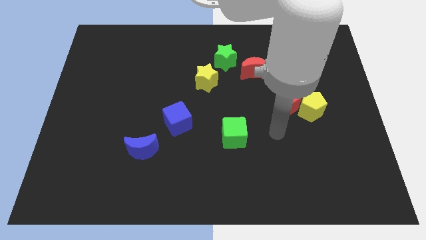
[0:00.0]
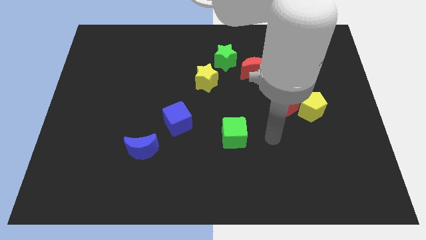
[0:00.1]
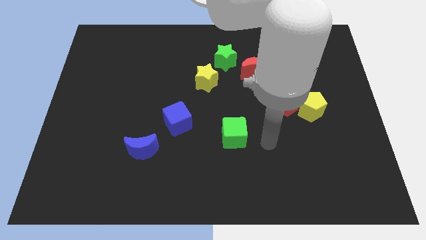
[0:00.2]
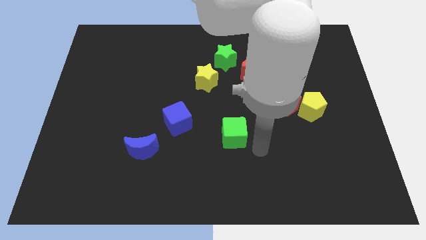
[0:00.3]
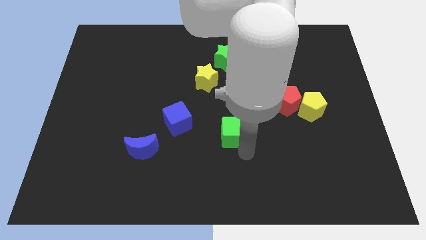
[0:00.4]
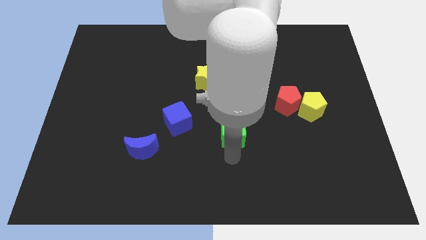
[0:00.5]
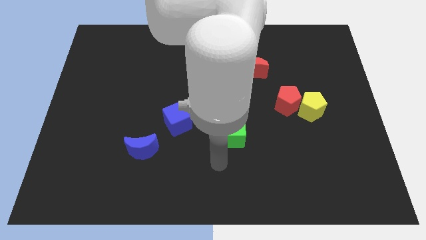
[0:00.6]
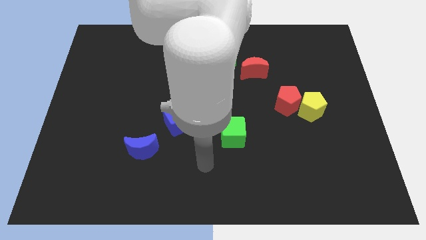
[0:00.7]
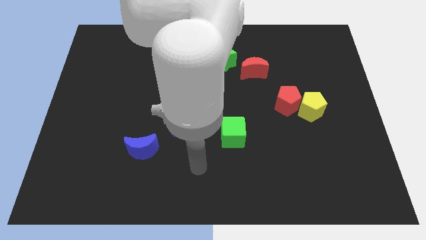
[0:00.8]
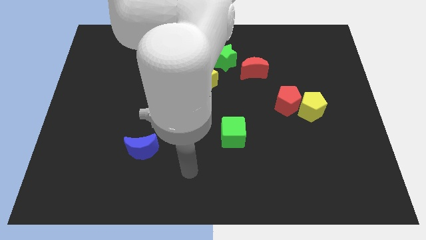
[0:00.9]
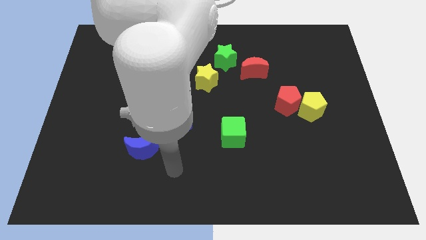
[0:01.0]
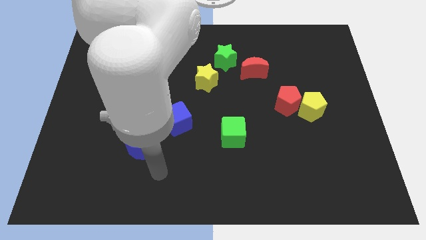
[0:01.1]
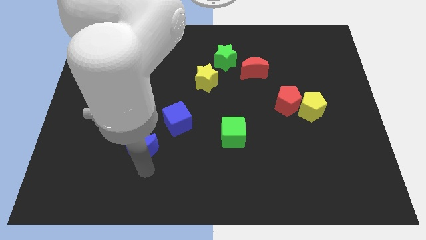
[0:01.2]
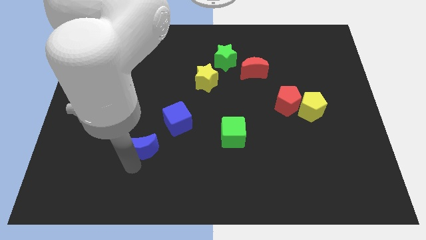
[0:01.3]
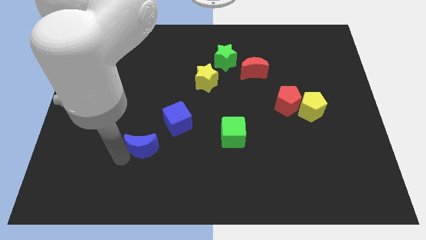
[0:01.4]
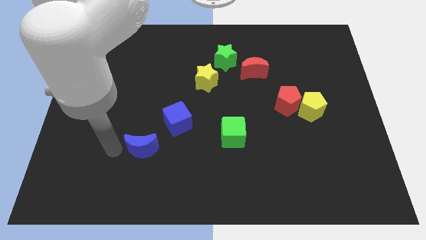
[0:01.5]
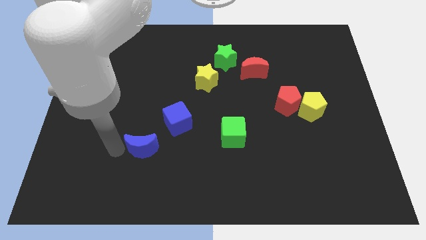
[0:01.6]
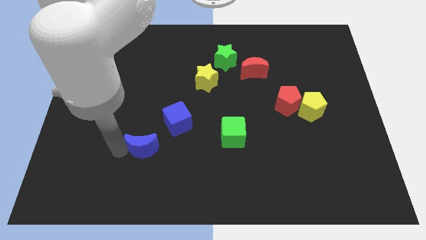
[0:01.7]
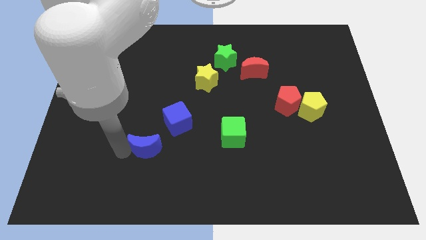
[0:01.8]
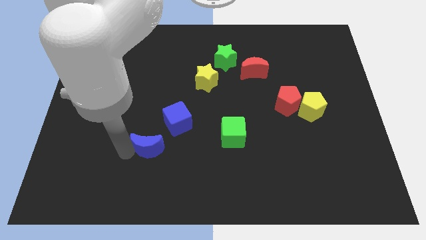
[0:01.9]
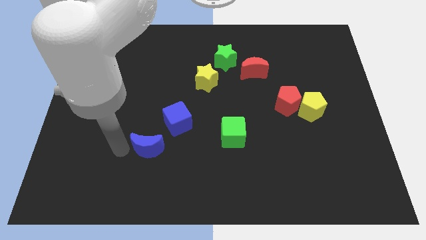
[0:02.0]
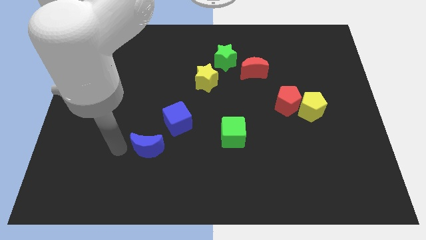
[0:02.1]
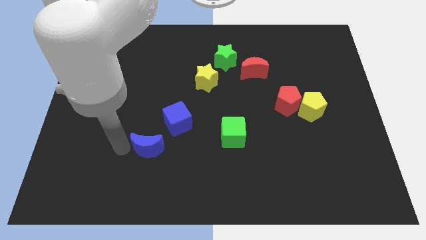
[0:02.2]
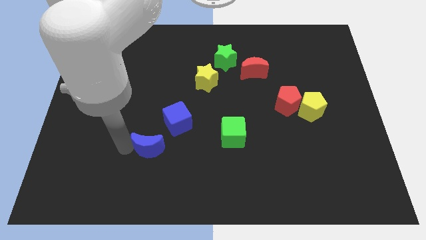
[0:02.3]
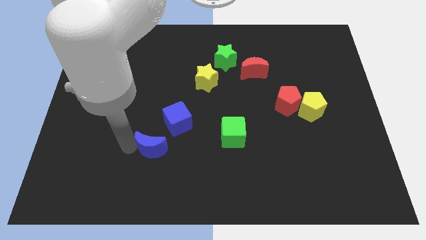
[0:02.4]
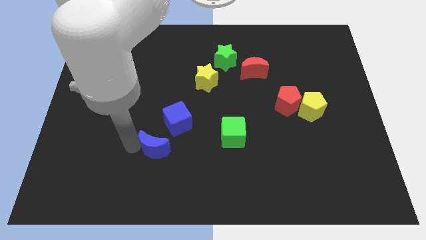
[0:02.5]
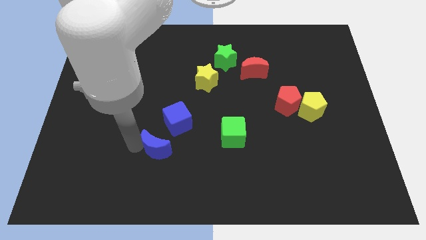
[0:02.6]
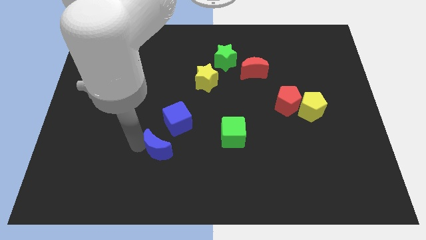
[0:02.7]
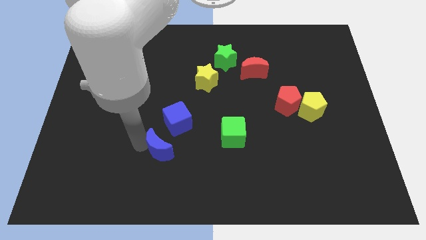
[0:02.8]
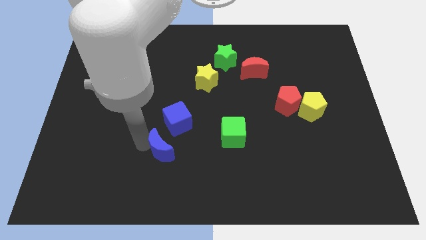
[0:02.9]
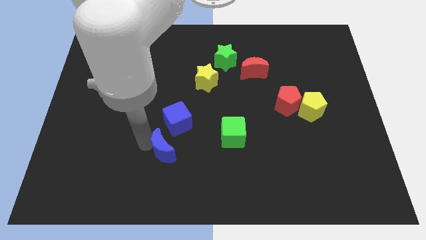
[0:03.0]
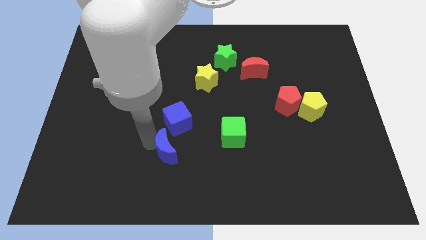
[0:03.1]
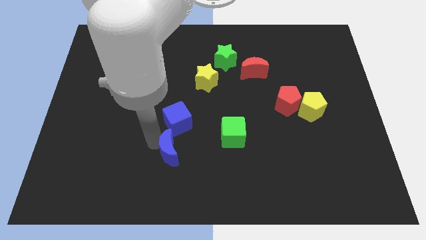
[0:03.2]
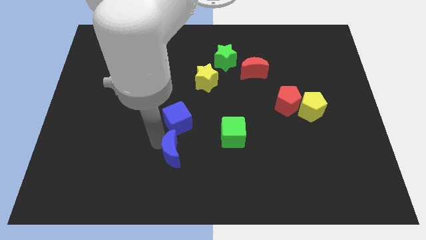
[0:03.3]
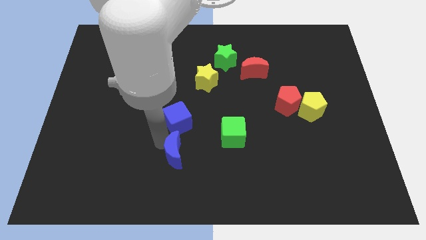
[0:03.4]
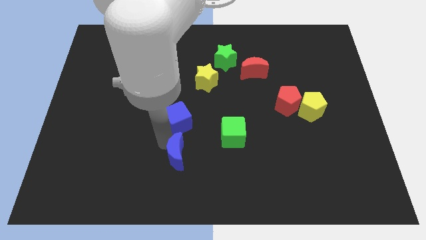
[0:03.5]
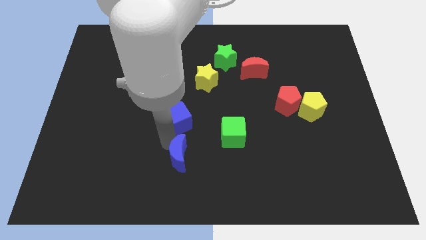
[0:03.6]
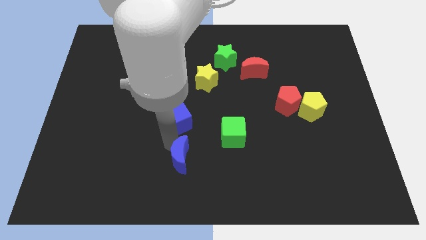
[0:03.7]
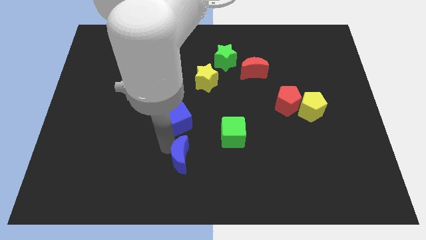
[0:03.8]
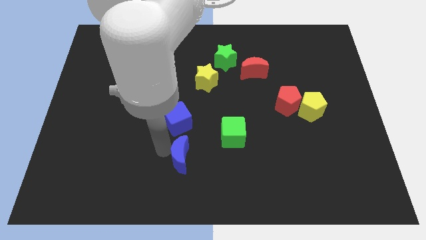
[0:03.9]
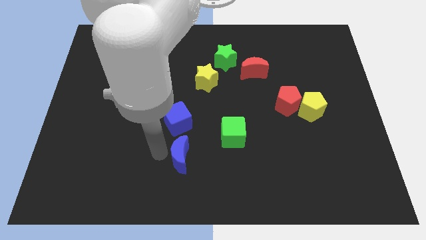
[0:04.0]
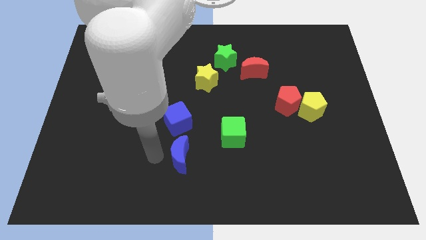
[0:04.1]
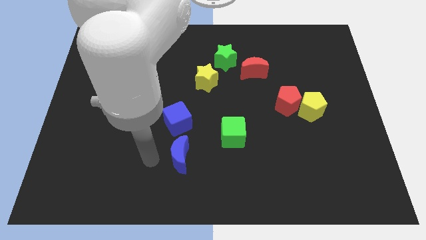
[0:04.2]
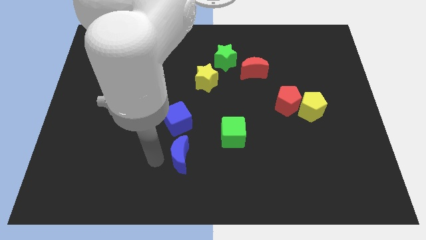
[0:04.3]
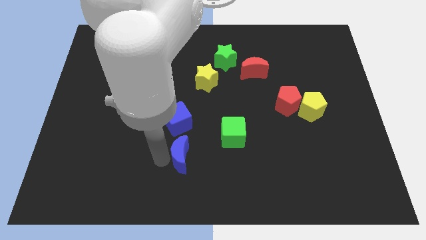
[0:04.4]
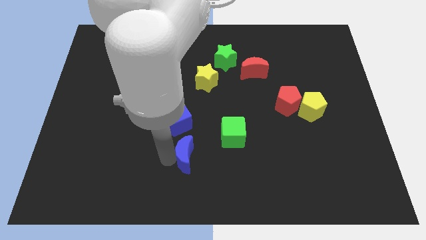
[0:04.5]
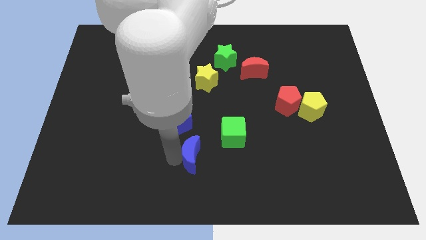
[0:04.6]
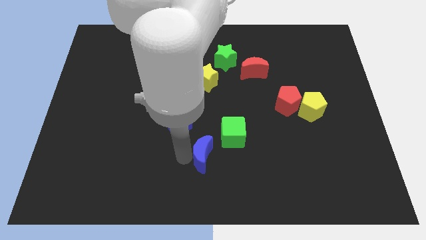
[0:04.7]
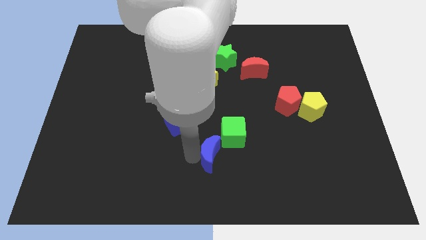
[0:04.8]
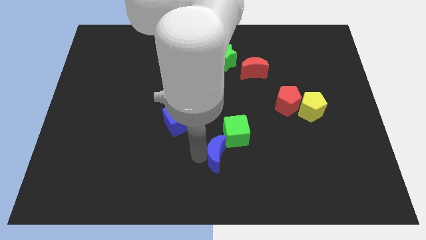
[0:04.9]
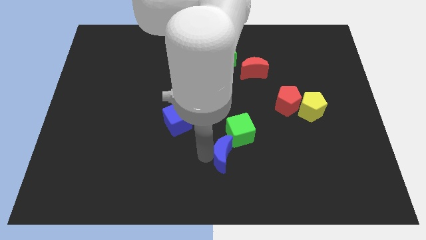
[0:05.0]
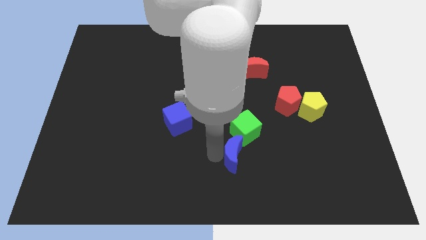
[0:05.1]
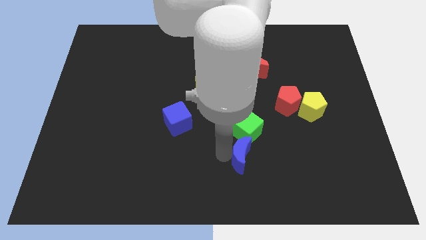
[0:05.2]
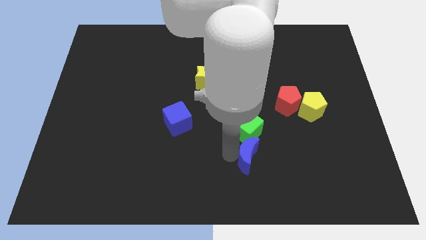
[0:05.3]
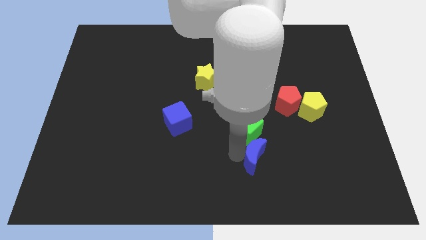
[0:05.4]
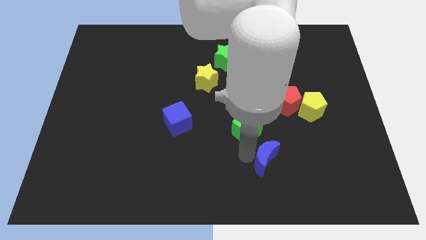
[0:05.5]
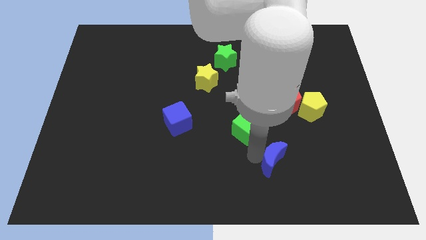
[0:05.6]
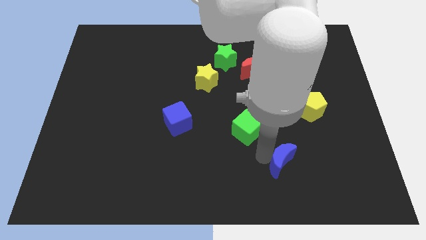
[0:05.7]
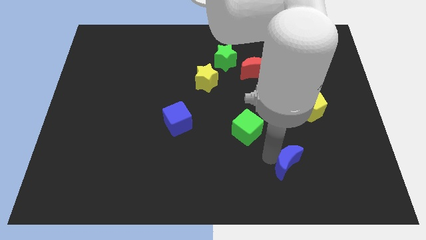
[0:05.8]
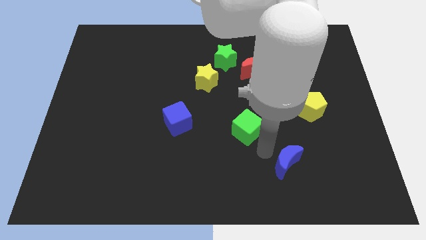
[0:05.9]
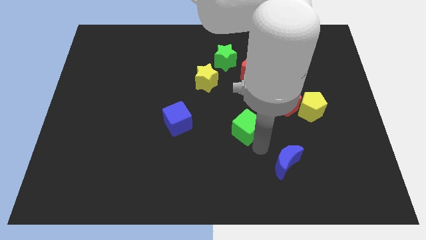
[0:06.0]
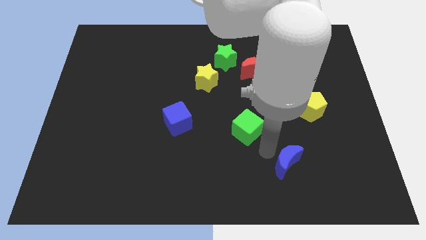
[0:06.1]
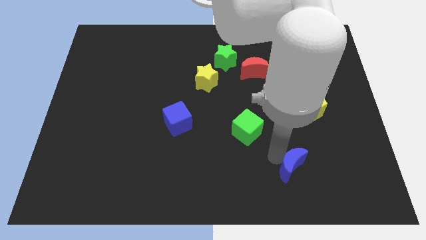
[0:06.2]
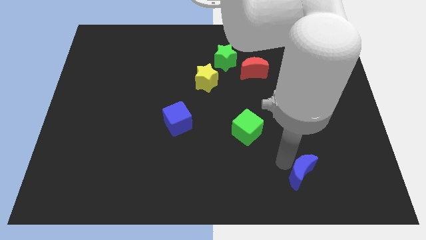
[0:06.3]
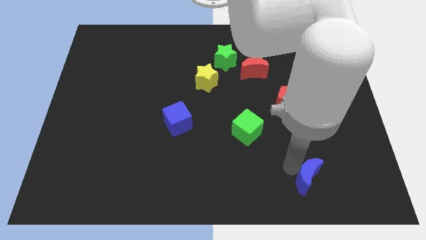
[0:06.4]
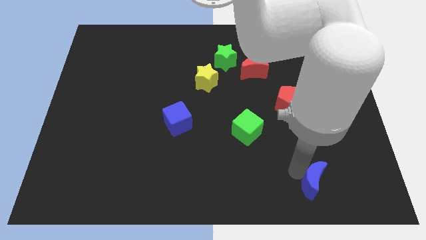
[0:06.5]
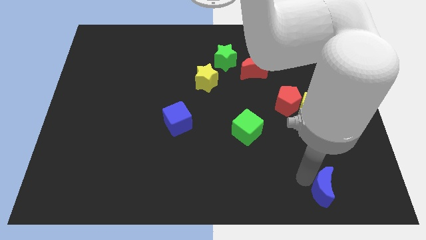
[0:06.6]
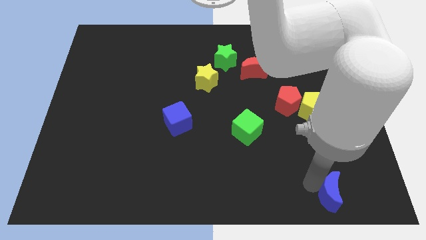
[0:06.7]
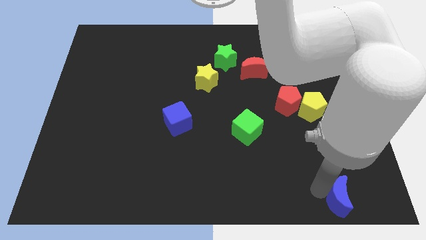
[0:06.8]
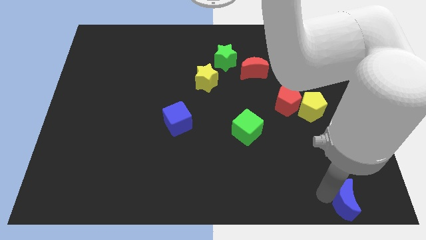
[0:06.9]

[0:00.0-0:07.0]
put the blue moon to the bottom right

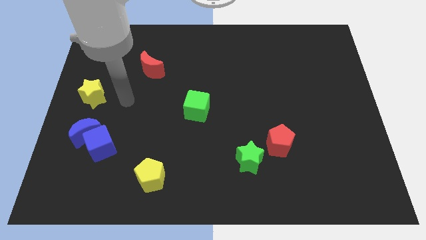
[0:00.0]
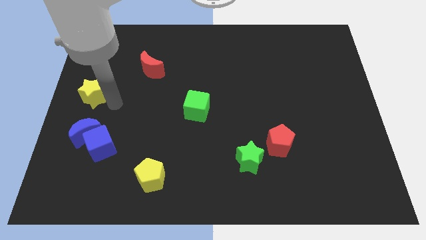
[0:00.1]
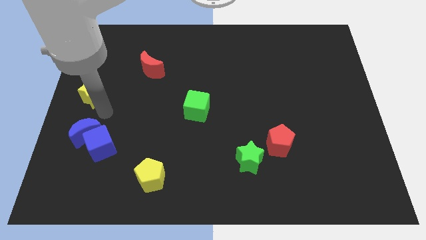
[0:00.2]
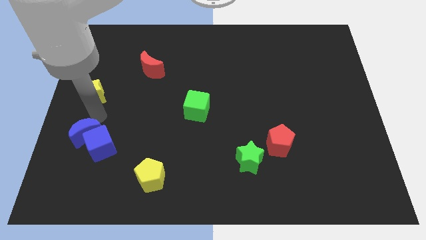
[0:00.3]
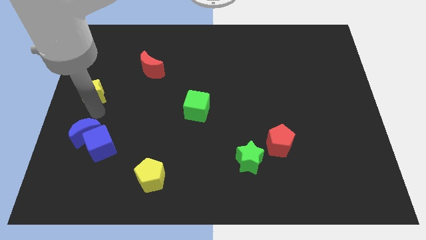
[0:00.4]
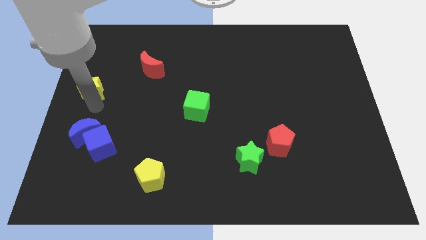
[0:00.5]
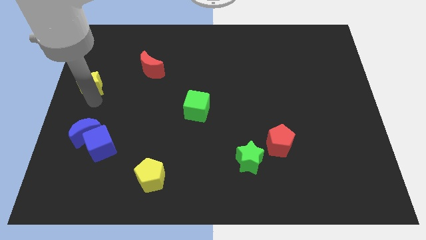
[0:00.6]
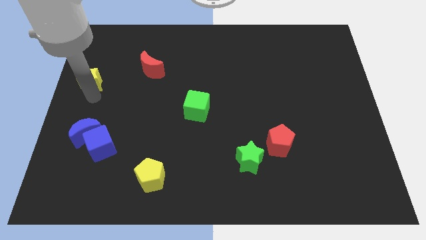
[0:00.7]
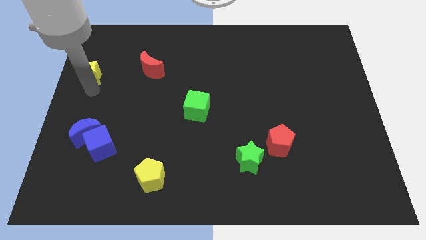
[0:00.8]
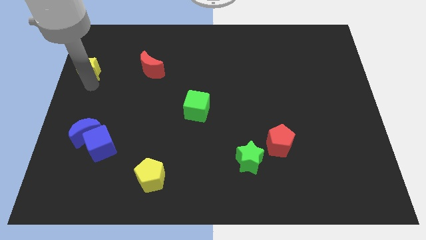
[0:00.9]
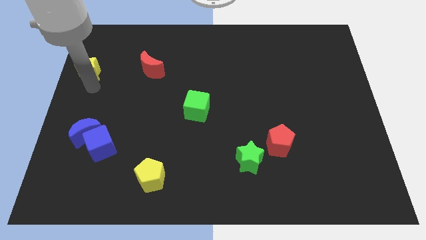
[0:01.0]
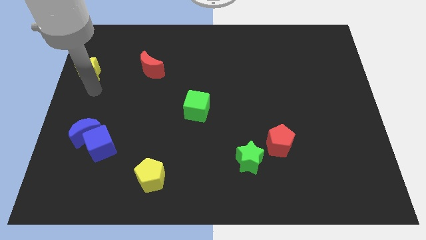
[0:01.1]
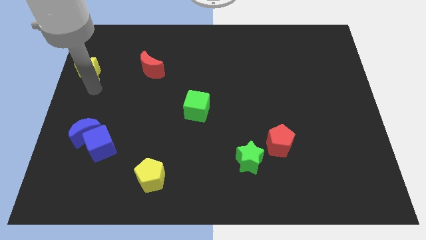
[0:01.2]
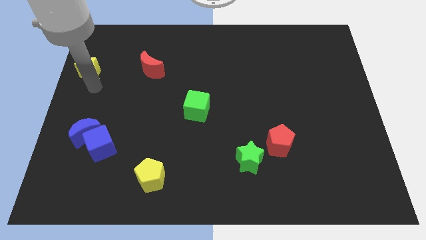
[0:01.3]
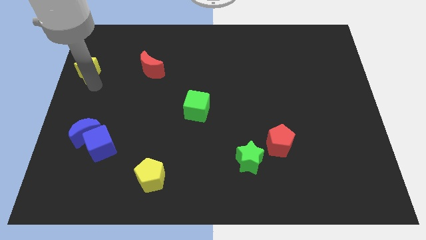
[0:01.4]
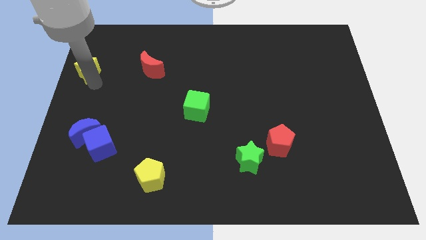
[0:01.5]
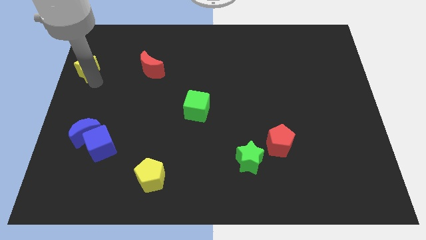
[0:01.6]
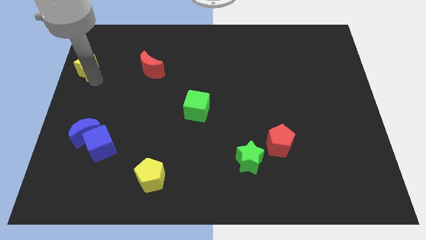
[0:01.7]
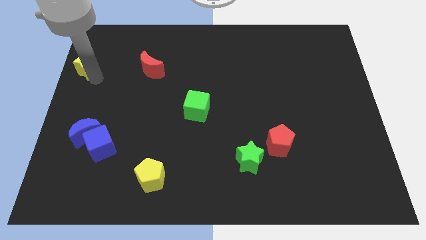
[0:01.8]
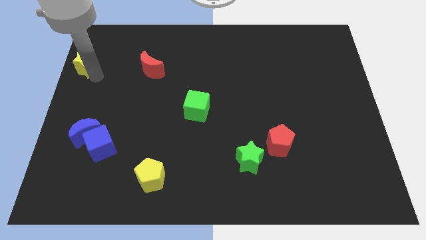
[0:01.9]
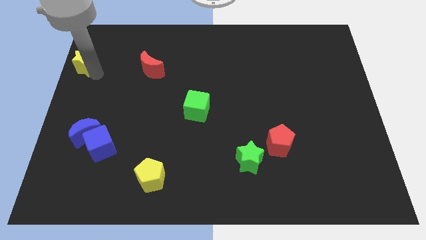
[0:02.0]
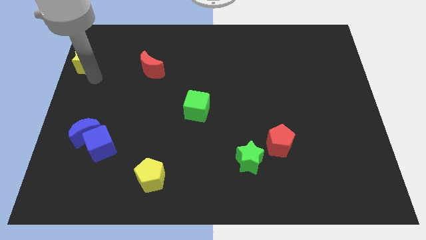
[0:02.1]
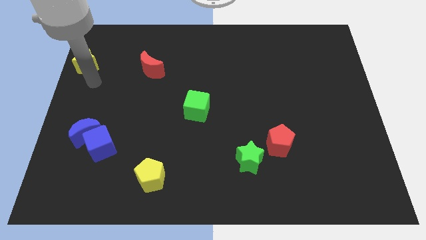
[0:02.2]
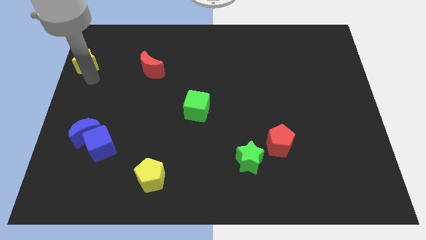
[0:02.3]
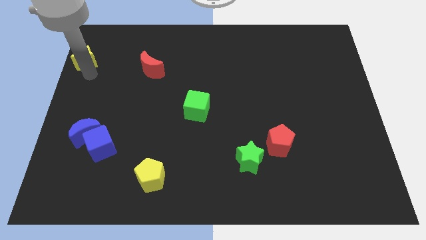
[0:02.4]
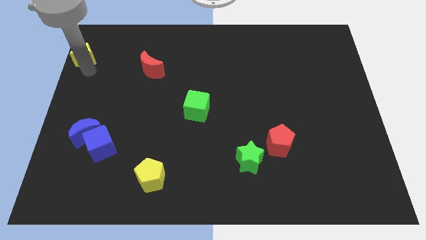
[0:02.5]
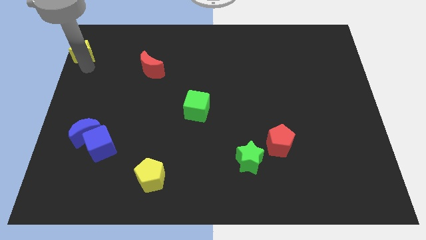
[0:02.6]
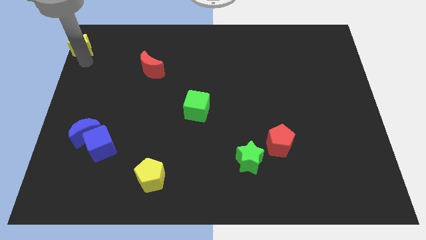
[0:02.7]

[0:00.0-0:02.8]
put the yellow star to the top left
